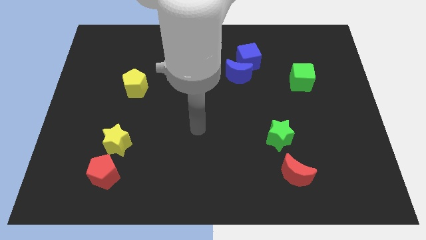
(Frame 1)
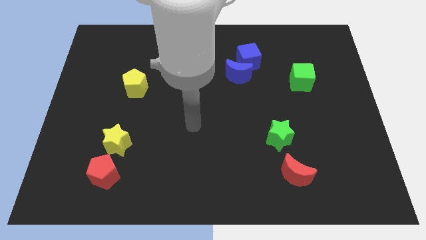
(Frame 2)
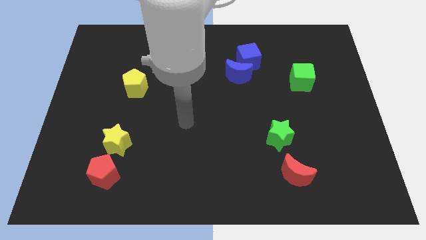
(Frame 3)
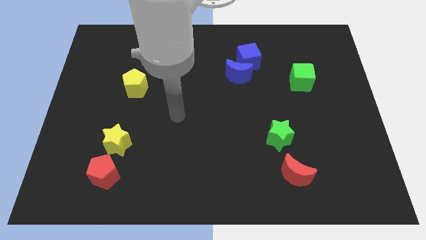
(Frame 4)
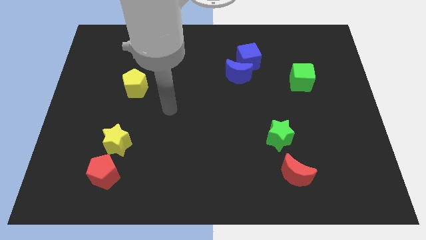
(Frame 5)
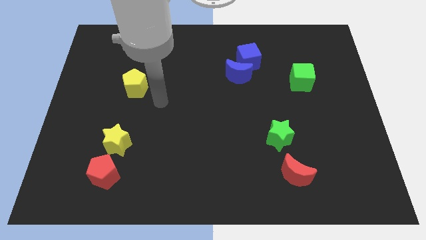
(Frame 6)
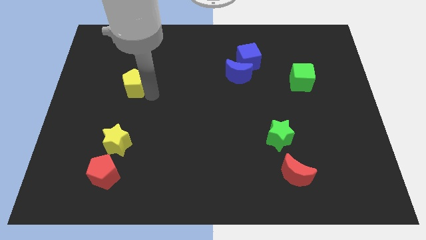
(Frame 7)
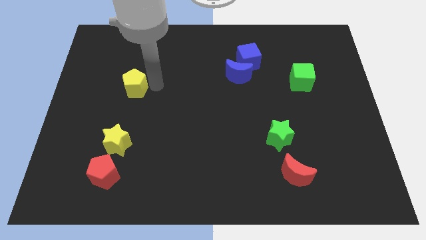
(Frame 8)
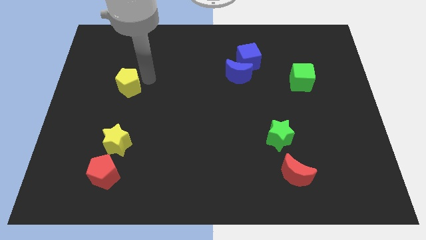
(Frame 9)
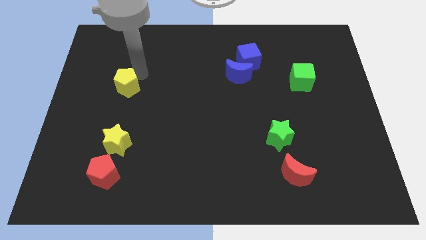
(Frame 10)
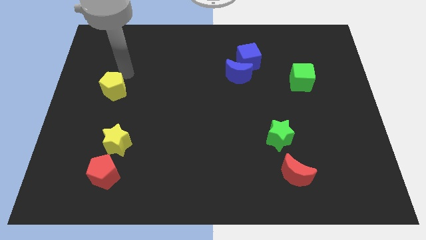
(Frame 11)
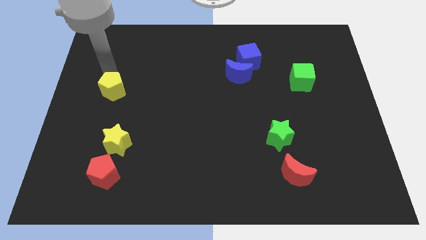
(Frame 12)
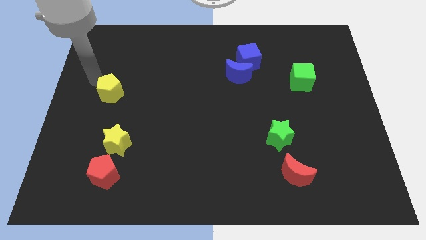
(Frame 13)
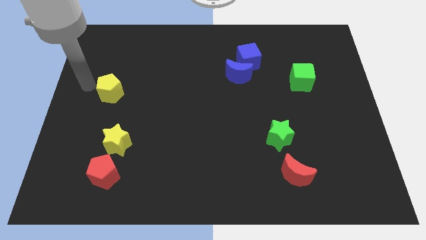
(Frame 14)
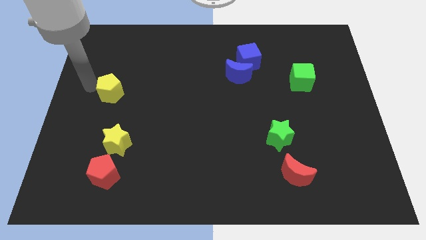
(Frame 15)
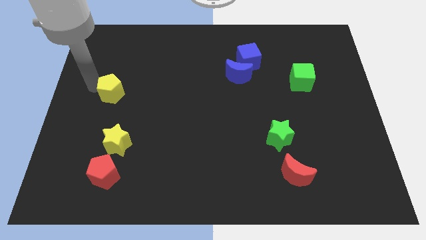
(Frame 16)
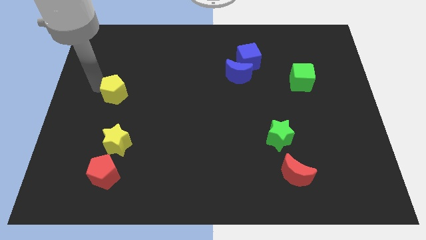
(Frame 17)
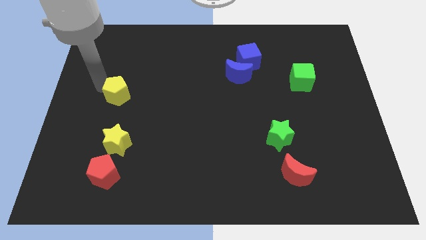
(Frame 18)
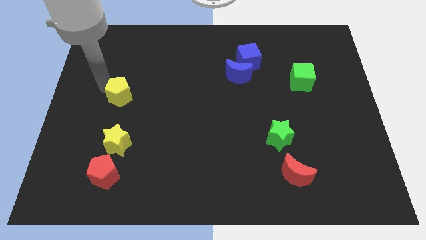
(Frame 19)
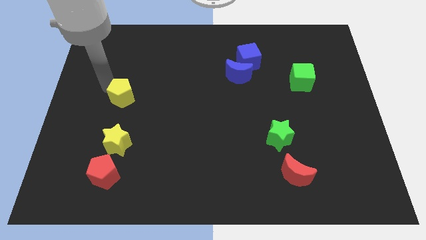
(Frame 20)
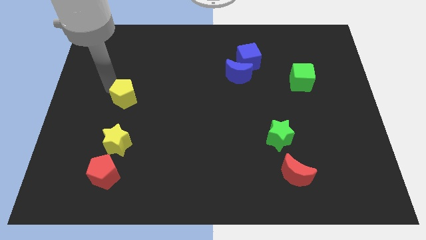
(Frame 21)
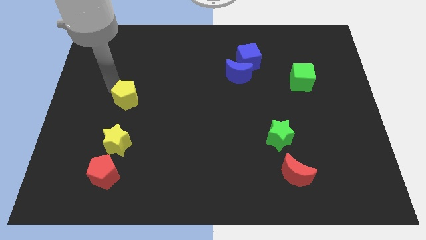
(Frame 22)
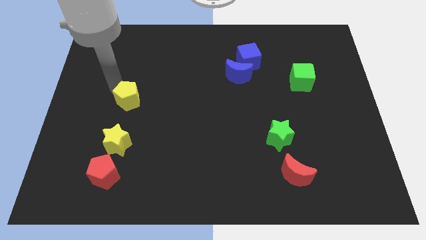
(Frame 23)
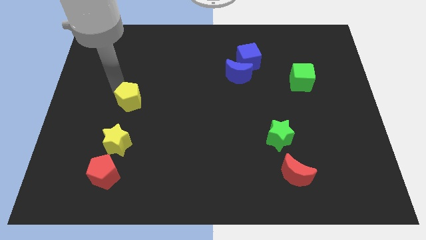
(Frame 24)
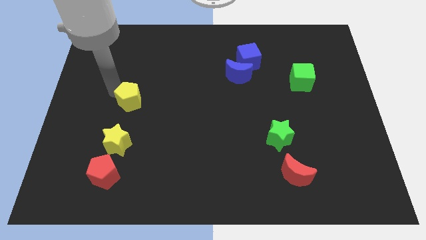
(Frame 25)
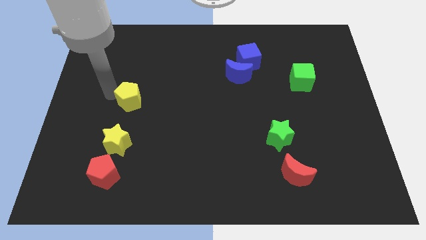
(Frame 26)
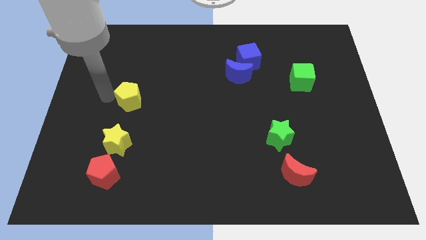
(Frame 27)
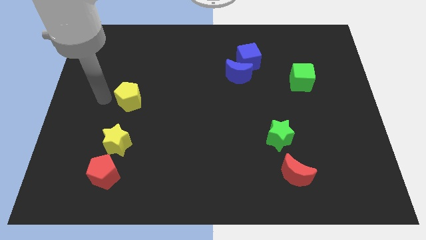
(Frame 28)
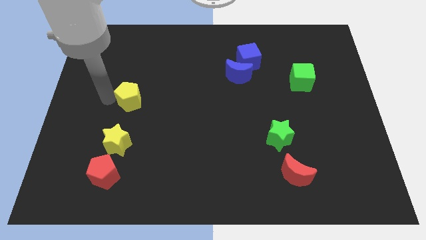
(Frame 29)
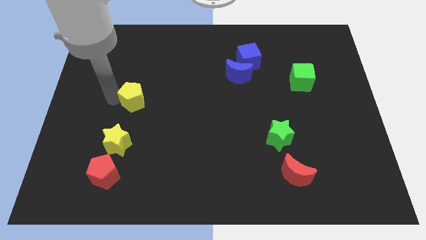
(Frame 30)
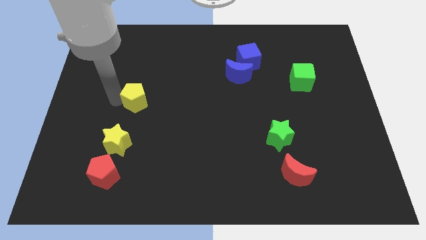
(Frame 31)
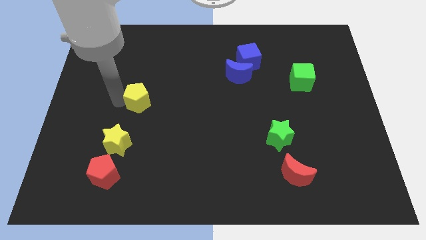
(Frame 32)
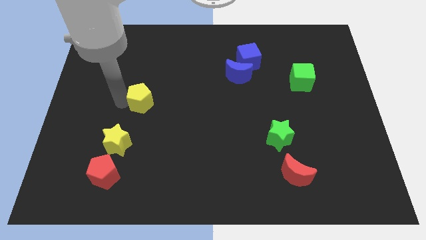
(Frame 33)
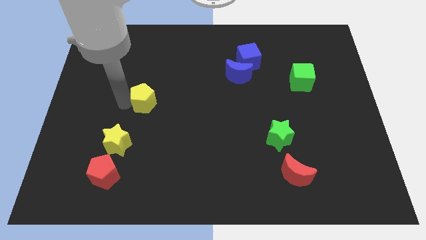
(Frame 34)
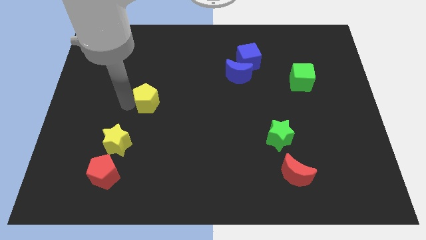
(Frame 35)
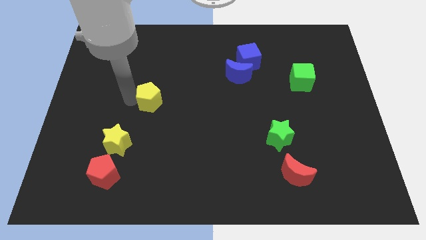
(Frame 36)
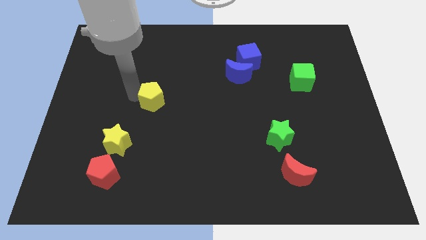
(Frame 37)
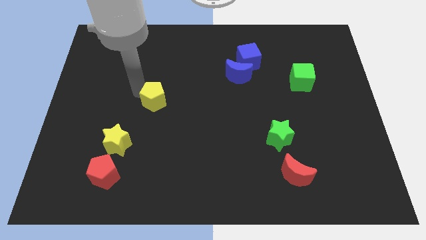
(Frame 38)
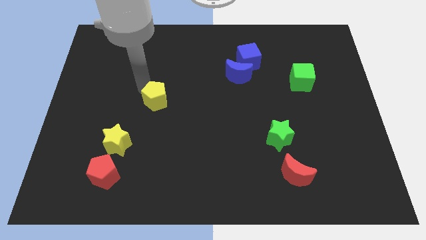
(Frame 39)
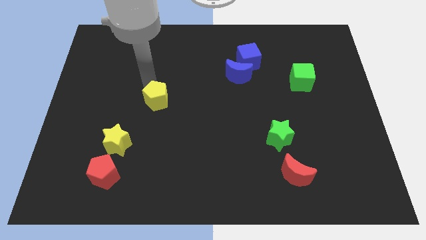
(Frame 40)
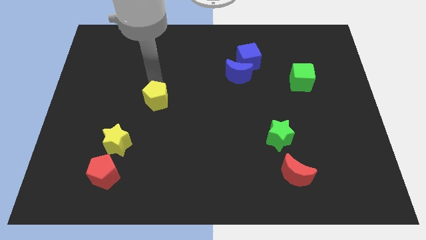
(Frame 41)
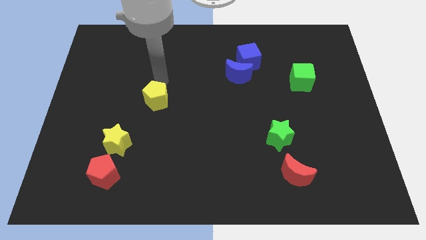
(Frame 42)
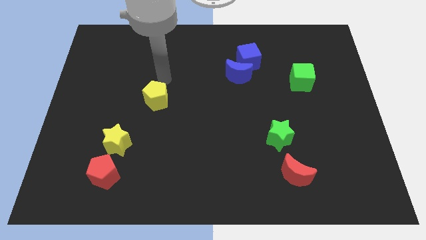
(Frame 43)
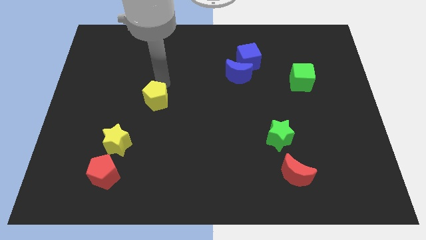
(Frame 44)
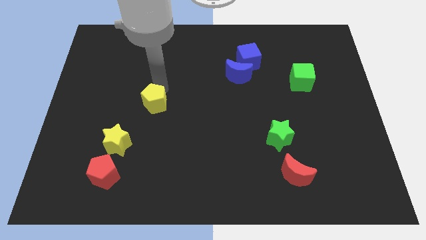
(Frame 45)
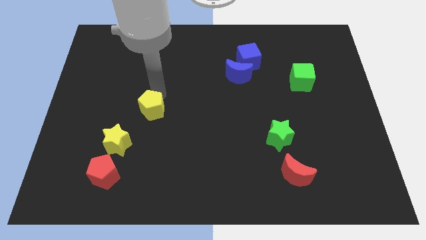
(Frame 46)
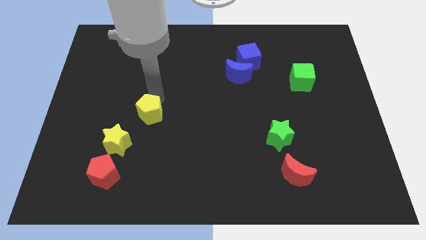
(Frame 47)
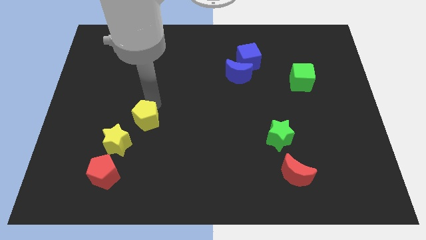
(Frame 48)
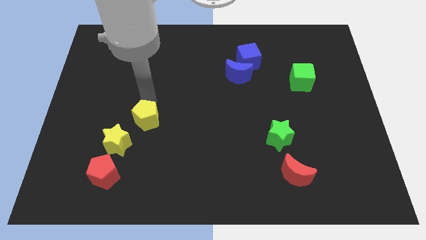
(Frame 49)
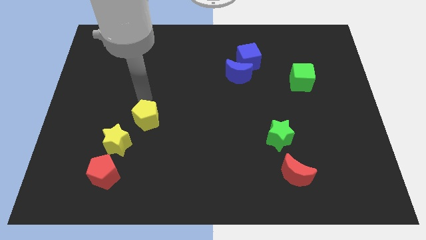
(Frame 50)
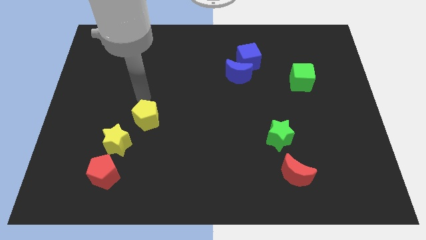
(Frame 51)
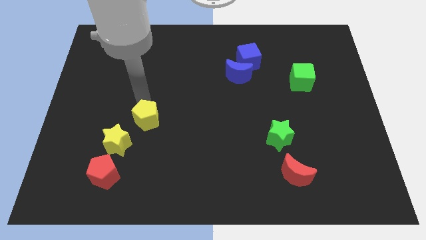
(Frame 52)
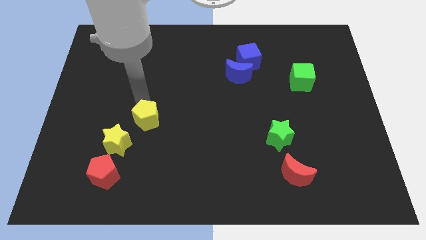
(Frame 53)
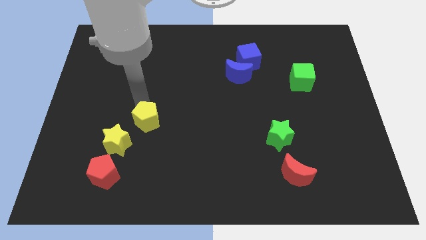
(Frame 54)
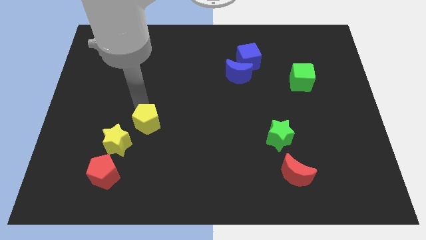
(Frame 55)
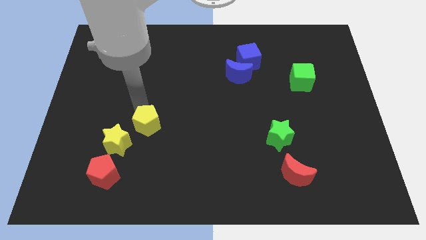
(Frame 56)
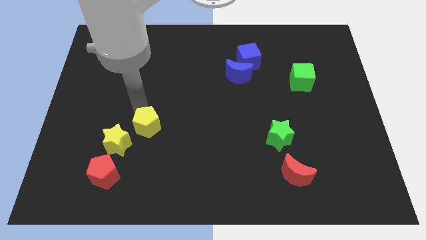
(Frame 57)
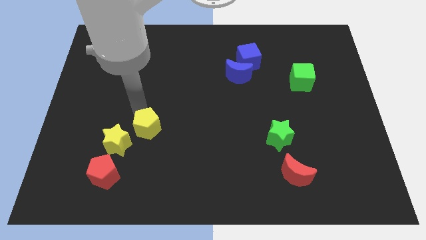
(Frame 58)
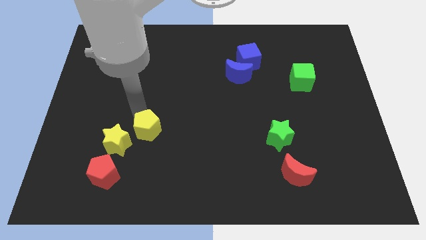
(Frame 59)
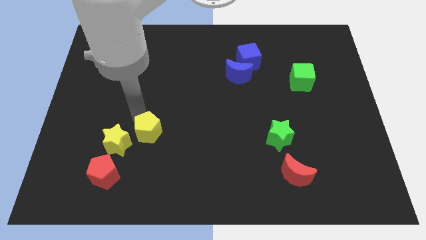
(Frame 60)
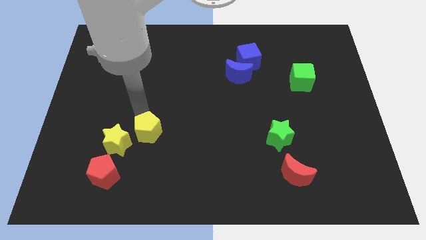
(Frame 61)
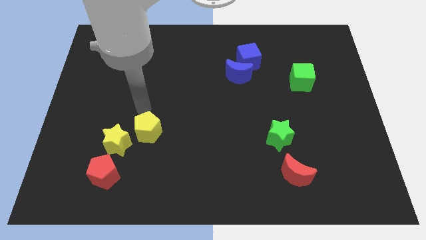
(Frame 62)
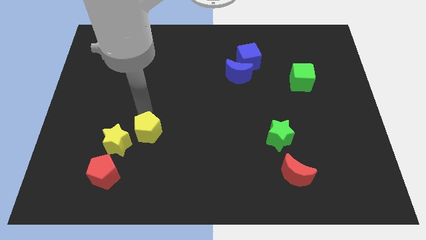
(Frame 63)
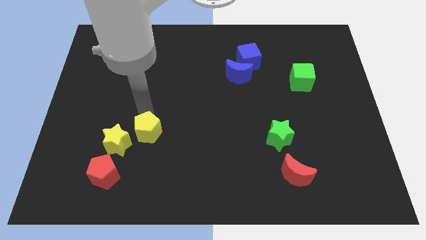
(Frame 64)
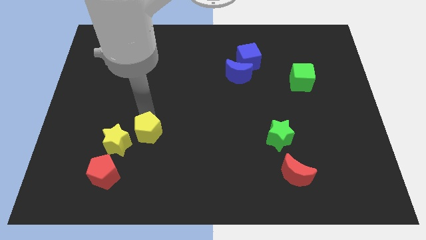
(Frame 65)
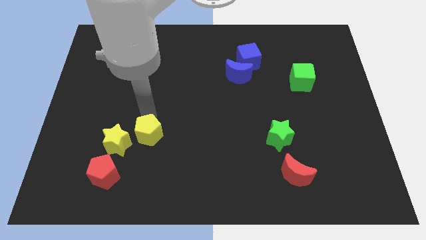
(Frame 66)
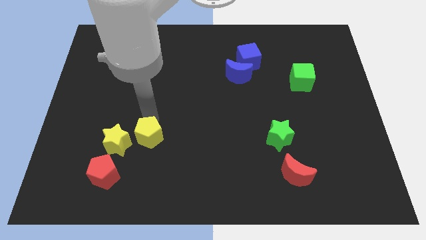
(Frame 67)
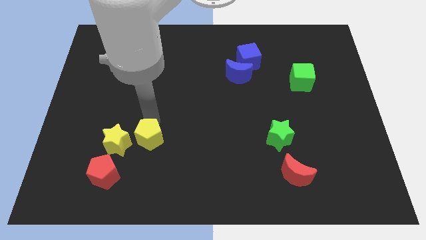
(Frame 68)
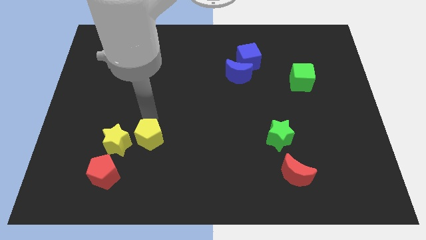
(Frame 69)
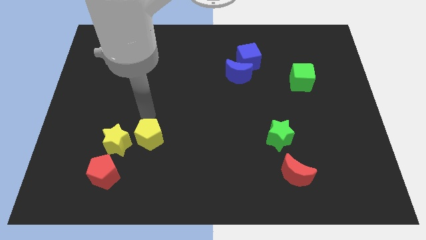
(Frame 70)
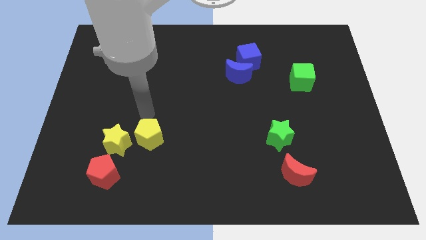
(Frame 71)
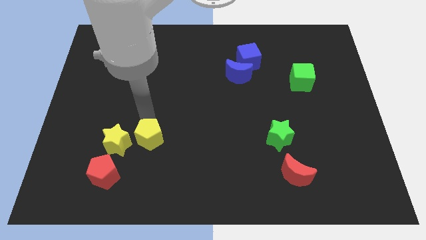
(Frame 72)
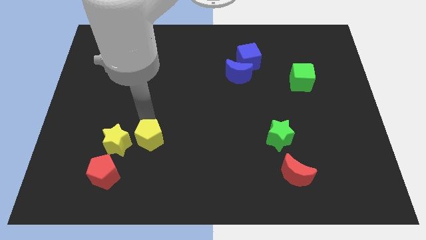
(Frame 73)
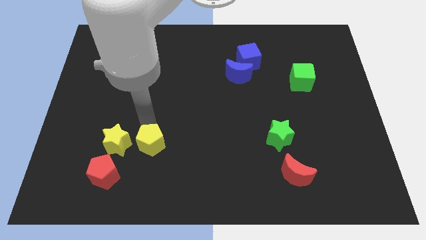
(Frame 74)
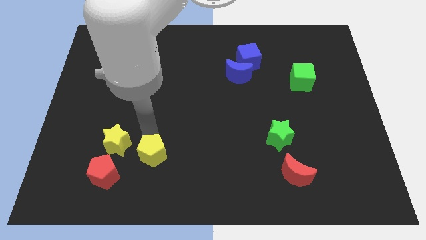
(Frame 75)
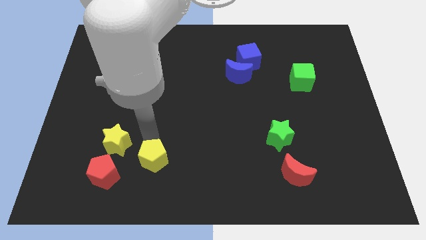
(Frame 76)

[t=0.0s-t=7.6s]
put the yellow pentagon just right of the red pentagon
